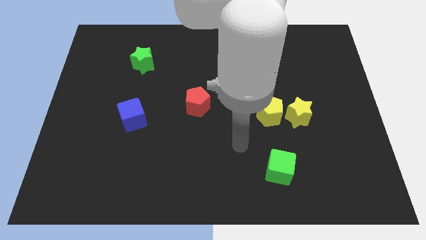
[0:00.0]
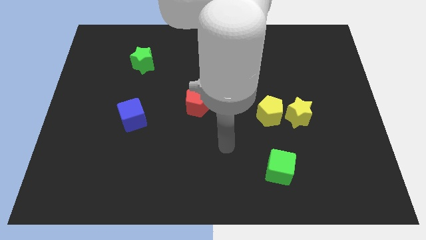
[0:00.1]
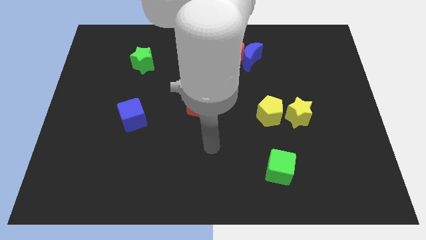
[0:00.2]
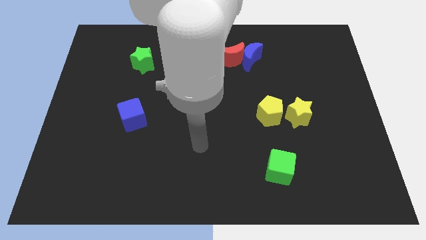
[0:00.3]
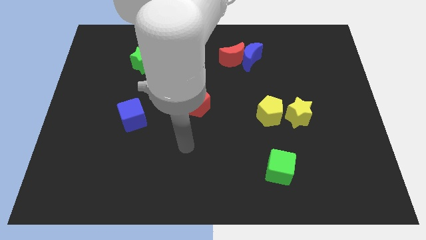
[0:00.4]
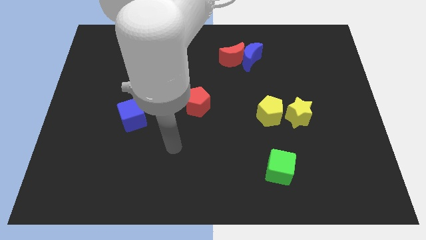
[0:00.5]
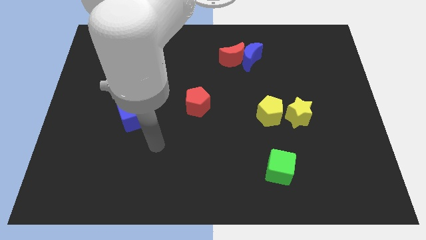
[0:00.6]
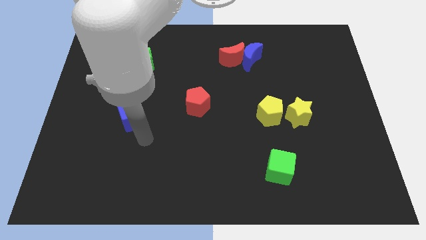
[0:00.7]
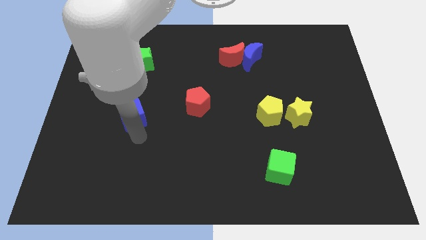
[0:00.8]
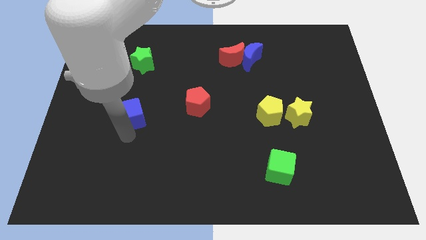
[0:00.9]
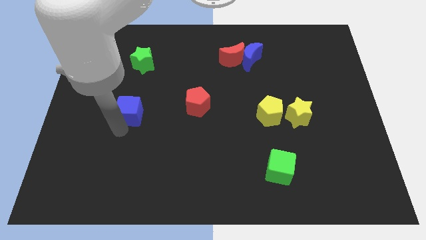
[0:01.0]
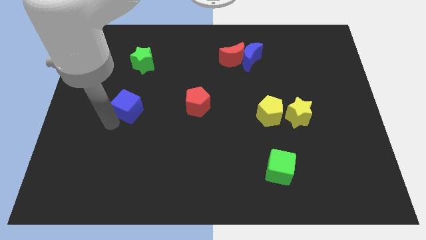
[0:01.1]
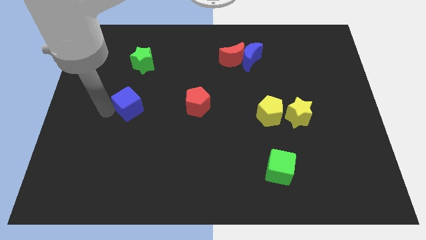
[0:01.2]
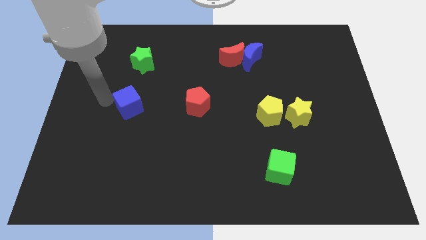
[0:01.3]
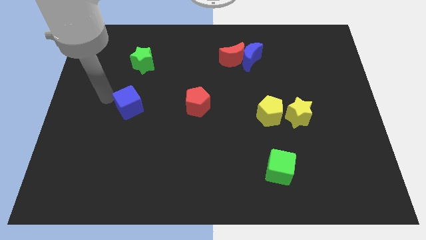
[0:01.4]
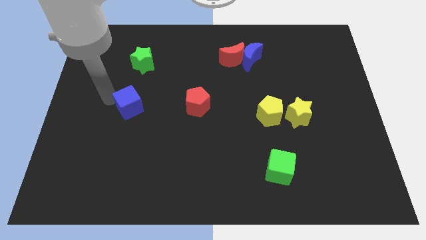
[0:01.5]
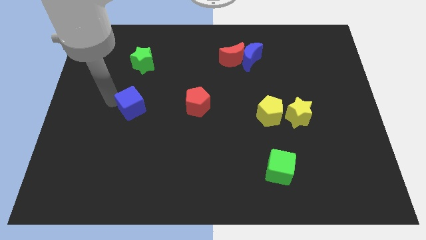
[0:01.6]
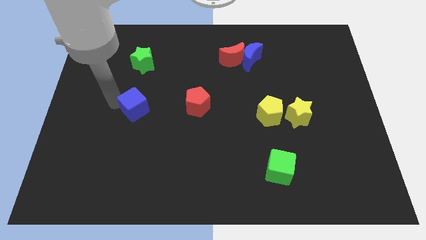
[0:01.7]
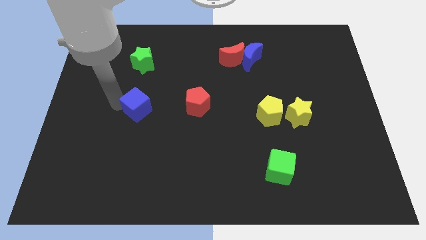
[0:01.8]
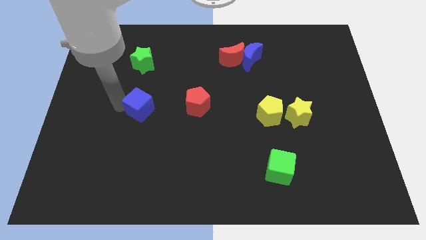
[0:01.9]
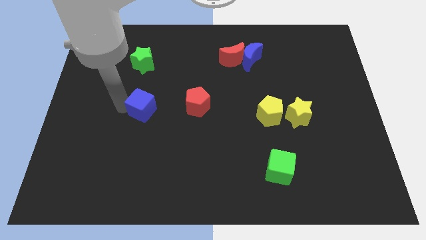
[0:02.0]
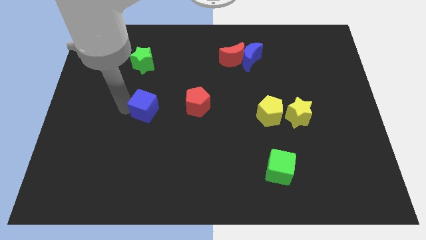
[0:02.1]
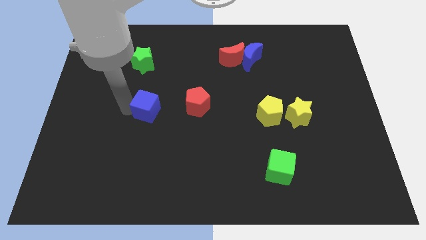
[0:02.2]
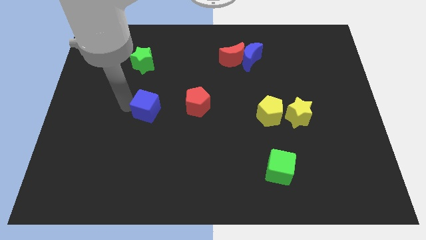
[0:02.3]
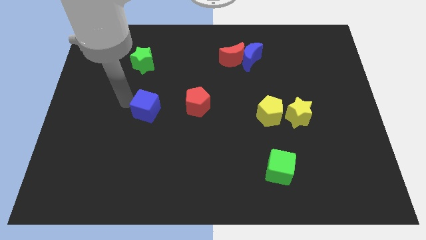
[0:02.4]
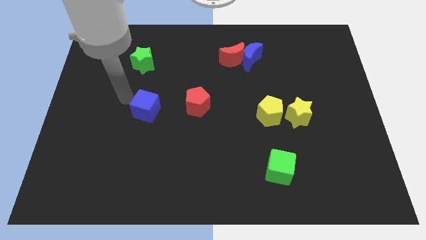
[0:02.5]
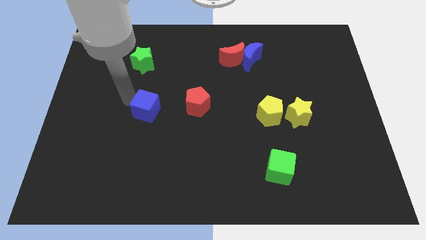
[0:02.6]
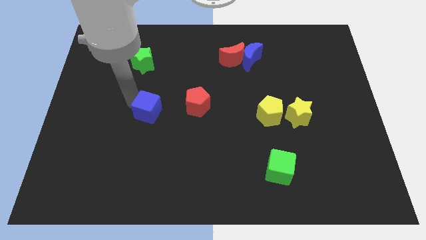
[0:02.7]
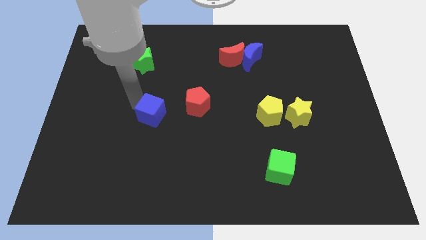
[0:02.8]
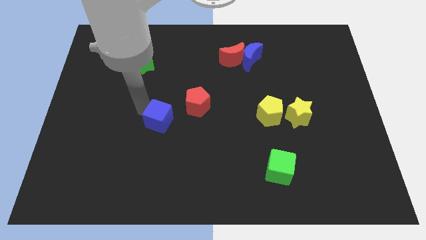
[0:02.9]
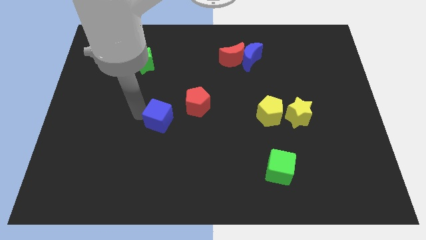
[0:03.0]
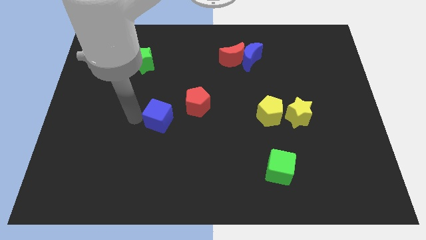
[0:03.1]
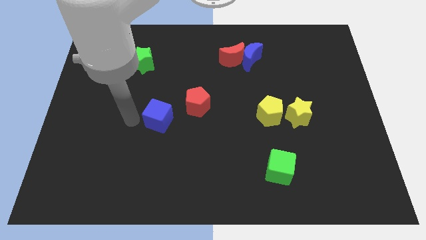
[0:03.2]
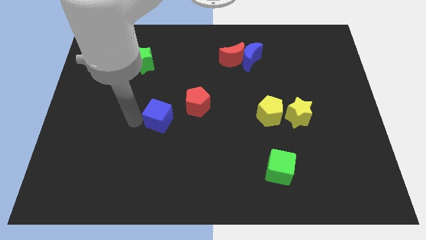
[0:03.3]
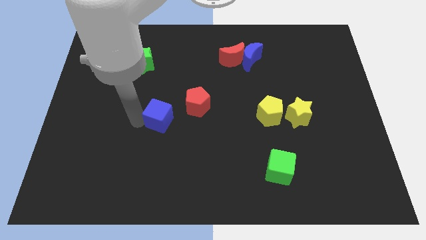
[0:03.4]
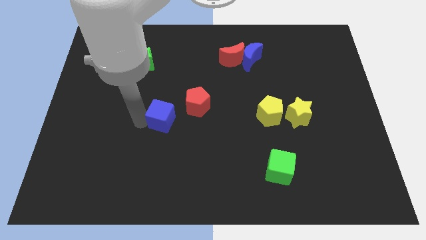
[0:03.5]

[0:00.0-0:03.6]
move the blue cube somewhat to the right

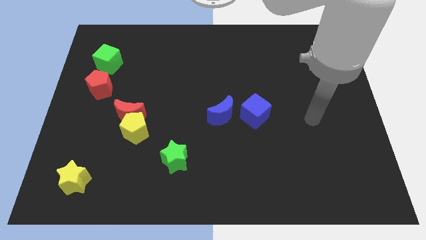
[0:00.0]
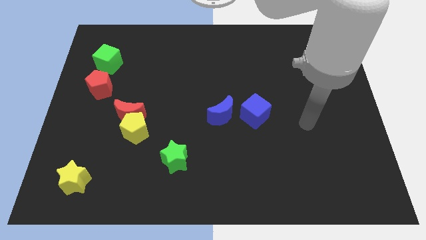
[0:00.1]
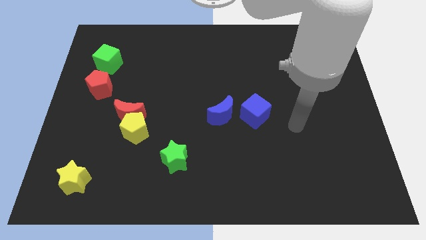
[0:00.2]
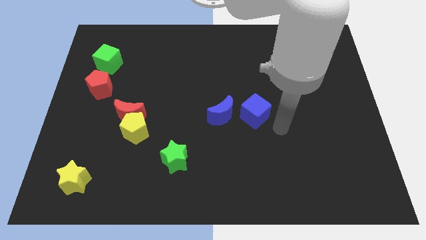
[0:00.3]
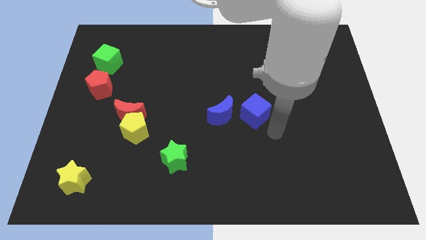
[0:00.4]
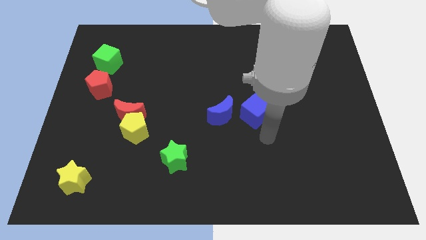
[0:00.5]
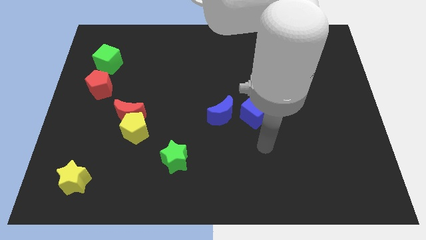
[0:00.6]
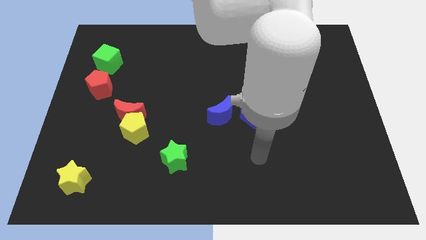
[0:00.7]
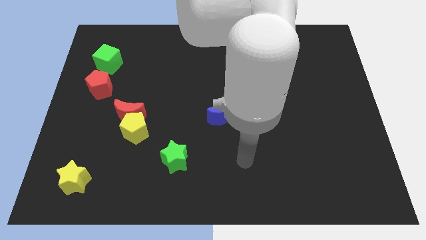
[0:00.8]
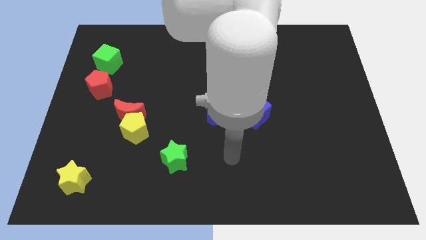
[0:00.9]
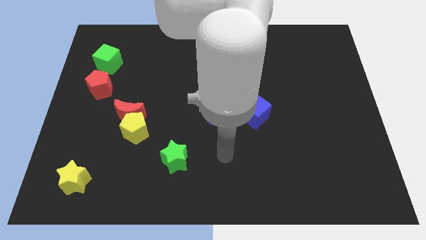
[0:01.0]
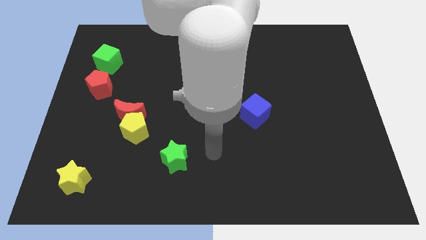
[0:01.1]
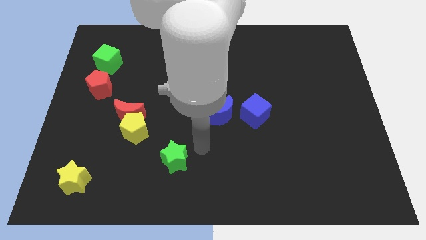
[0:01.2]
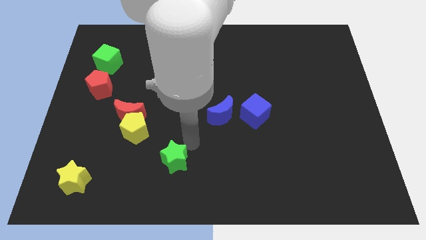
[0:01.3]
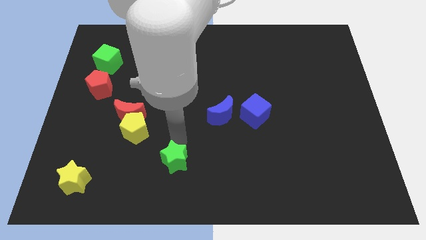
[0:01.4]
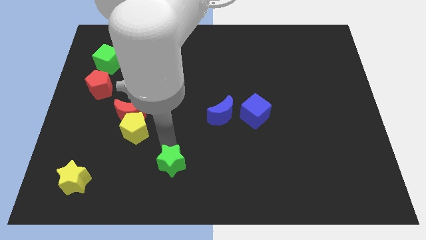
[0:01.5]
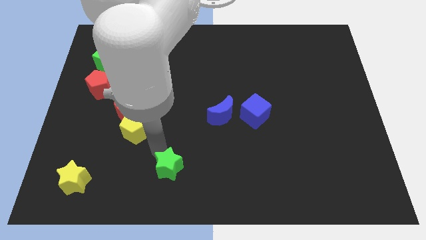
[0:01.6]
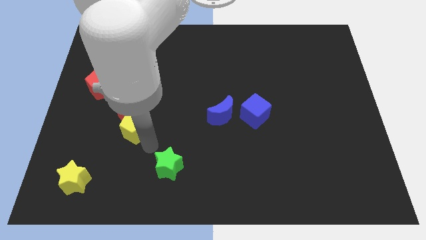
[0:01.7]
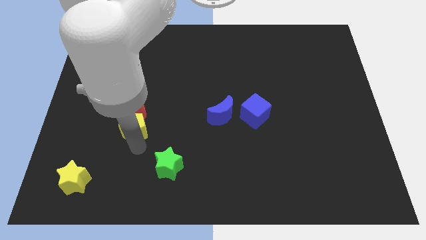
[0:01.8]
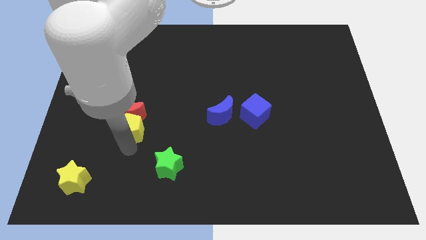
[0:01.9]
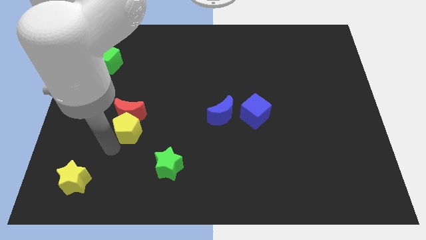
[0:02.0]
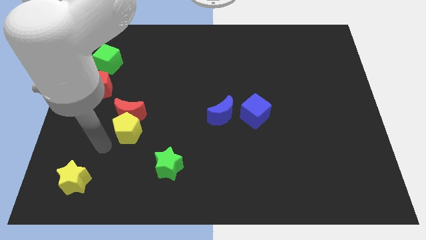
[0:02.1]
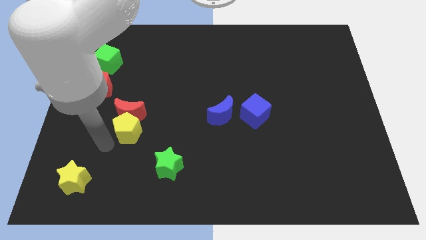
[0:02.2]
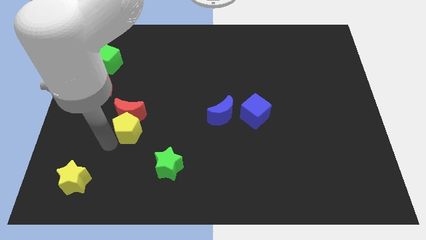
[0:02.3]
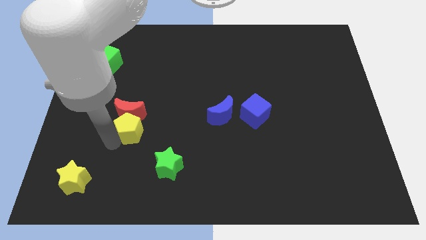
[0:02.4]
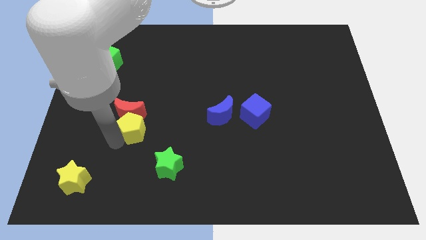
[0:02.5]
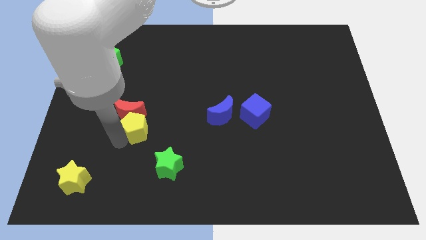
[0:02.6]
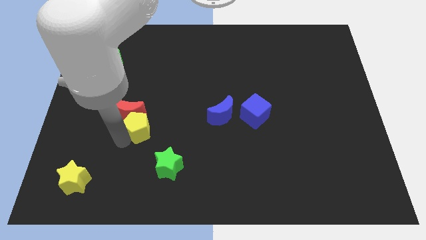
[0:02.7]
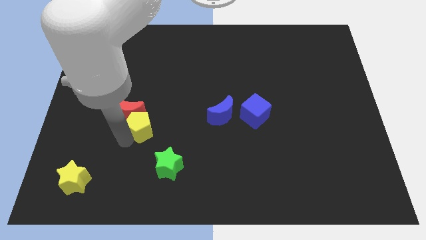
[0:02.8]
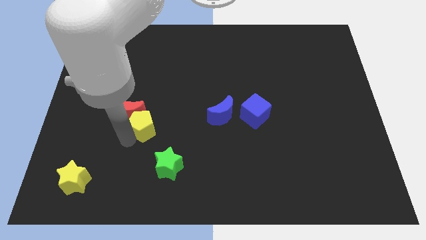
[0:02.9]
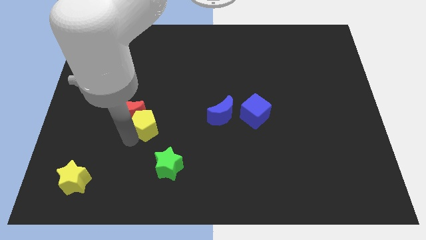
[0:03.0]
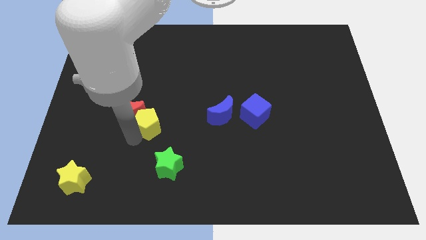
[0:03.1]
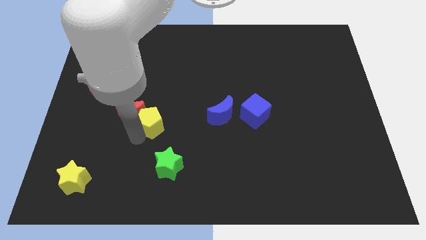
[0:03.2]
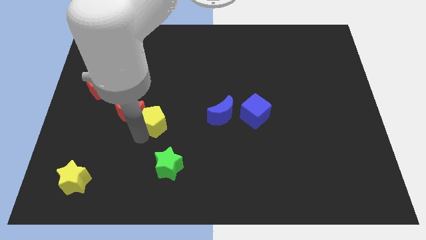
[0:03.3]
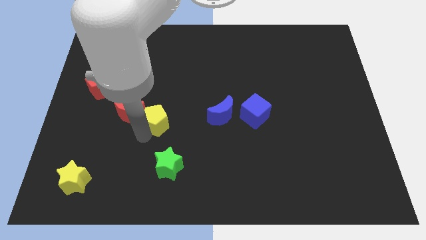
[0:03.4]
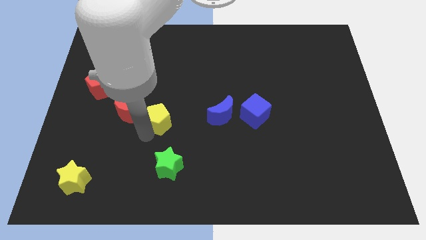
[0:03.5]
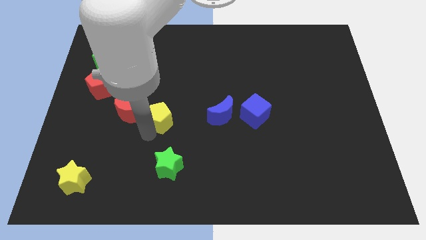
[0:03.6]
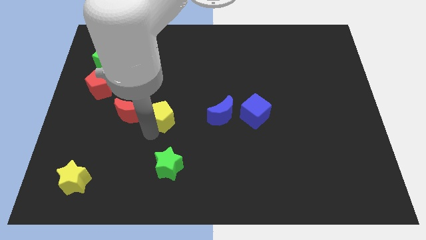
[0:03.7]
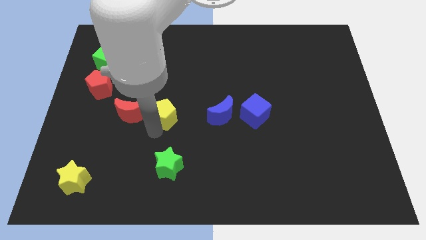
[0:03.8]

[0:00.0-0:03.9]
slide the yellow pentagon slightly diagonally upwards and right
